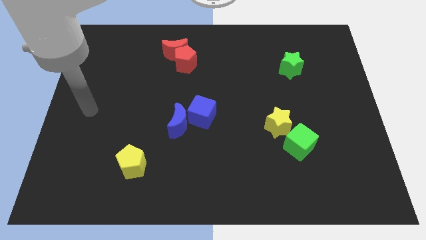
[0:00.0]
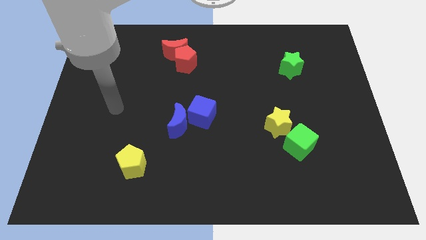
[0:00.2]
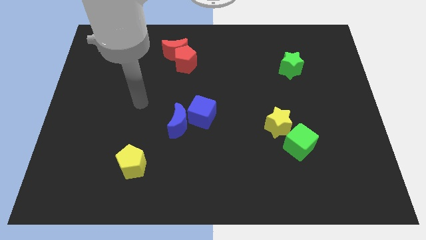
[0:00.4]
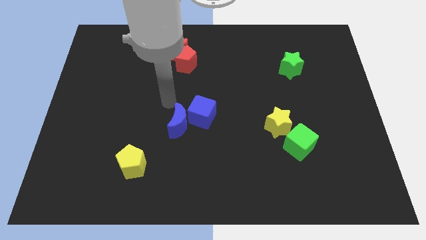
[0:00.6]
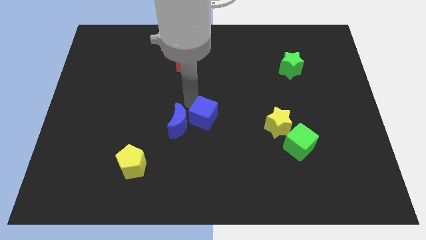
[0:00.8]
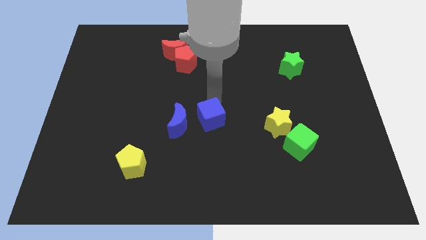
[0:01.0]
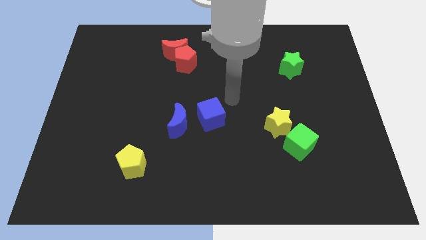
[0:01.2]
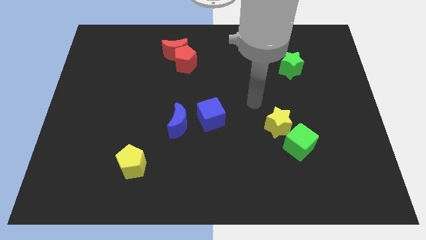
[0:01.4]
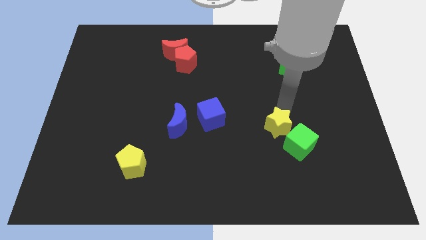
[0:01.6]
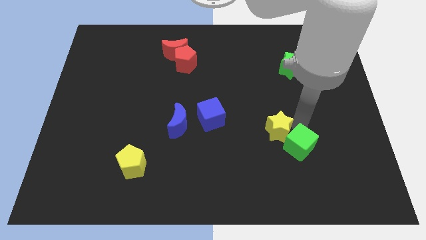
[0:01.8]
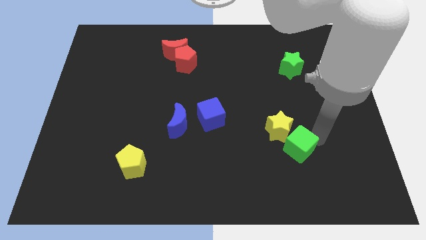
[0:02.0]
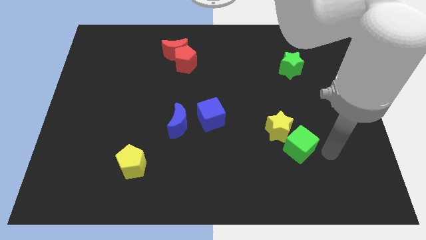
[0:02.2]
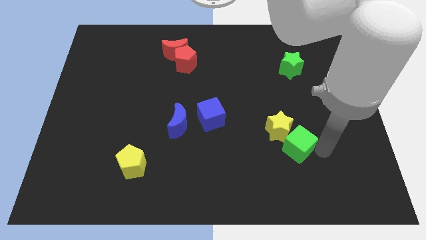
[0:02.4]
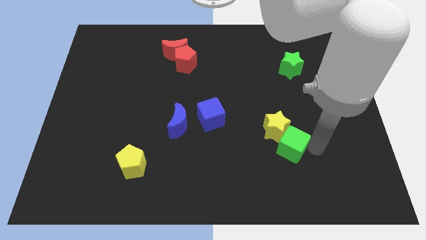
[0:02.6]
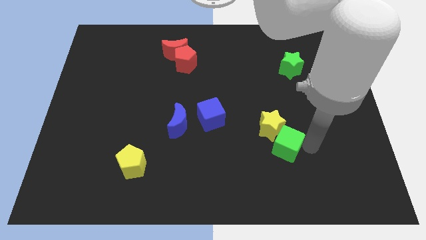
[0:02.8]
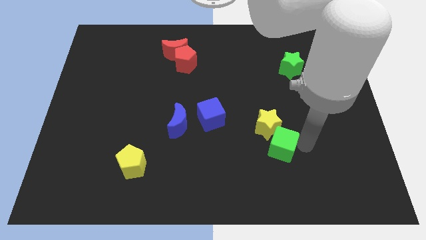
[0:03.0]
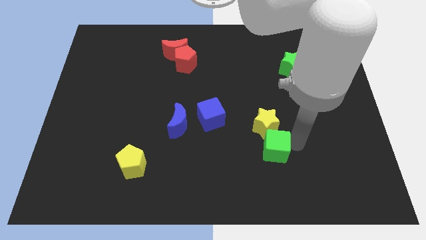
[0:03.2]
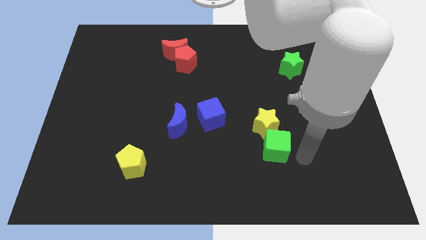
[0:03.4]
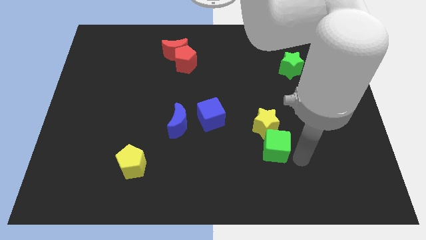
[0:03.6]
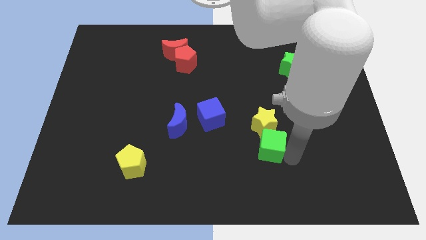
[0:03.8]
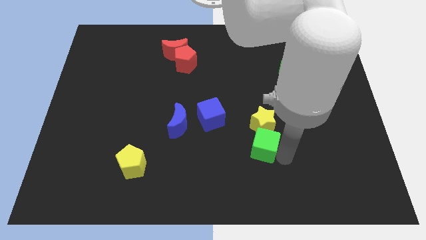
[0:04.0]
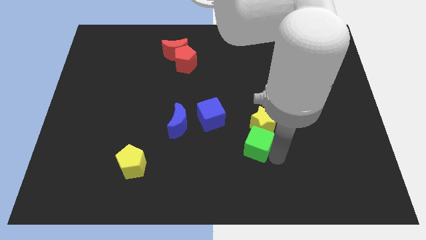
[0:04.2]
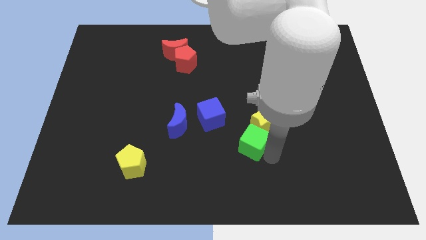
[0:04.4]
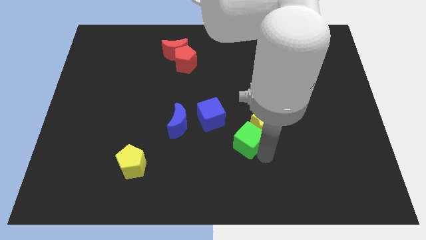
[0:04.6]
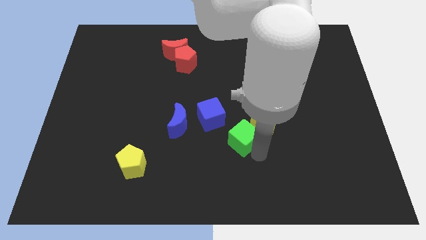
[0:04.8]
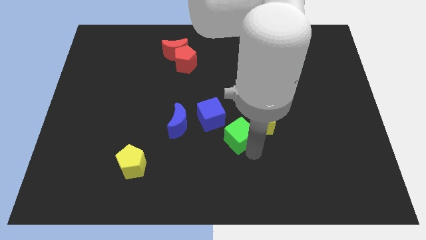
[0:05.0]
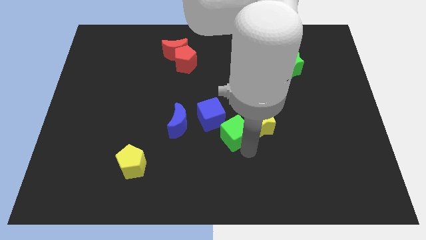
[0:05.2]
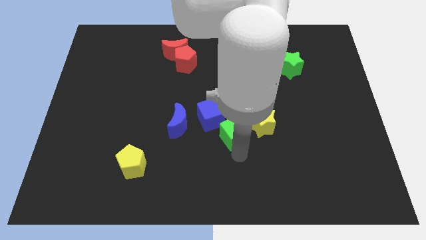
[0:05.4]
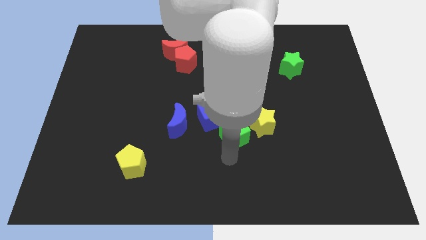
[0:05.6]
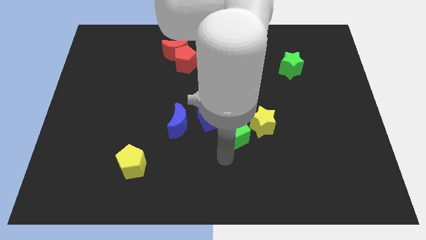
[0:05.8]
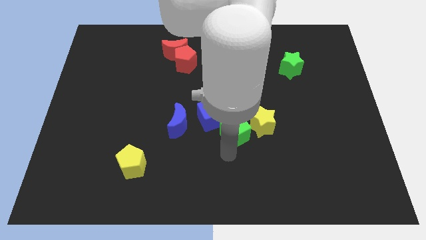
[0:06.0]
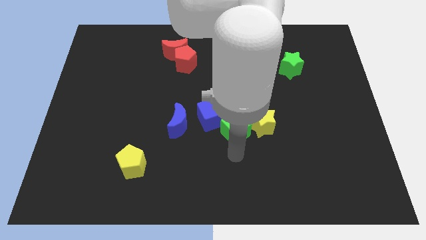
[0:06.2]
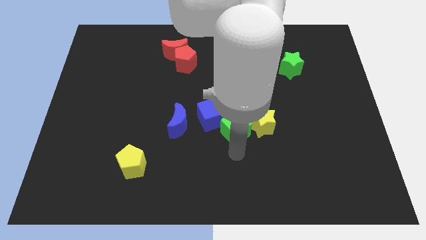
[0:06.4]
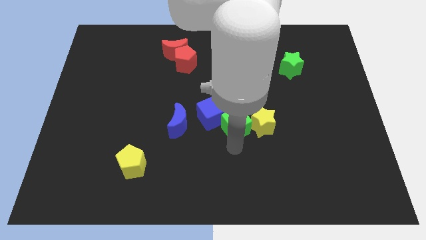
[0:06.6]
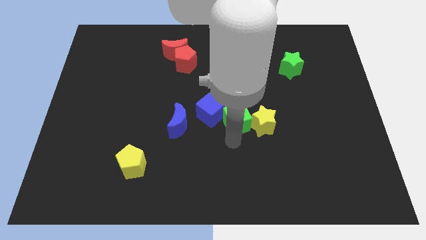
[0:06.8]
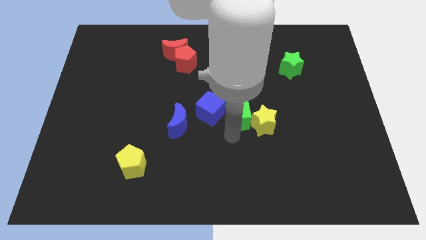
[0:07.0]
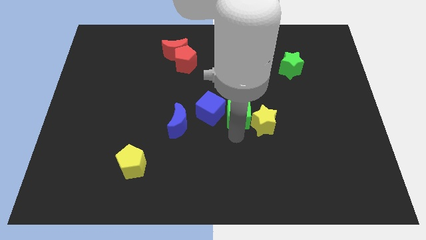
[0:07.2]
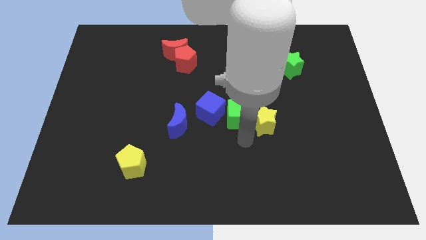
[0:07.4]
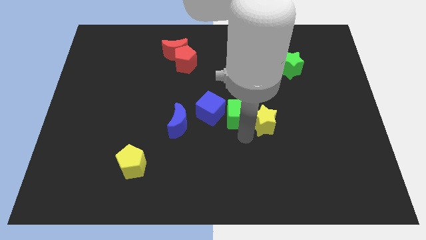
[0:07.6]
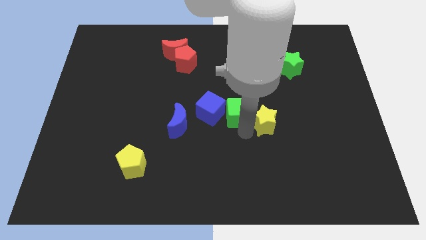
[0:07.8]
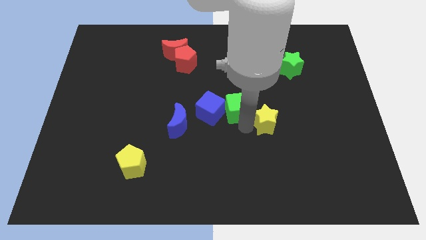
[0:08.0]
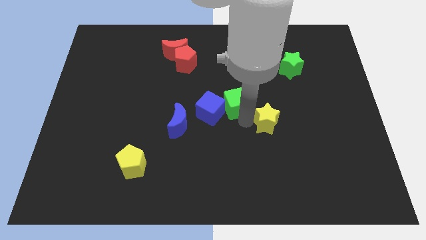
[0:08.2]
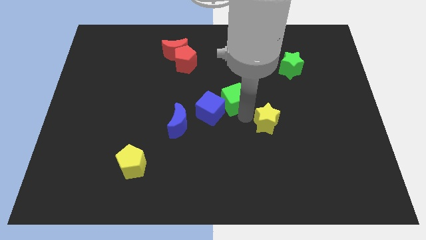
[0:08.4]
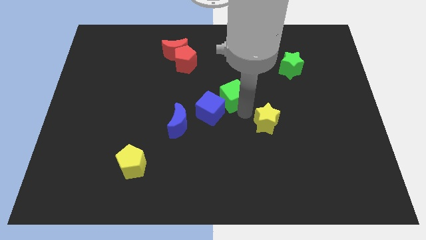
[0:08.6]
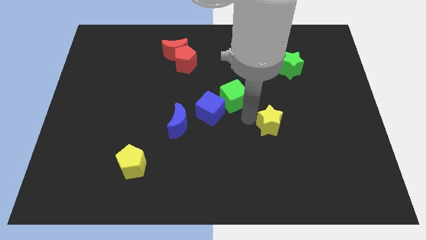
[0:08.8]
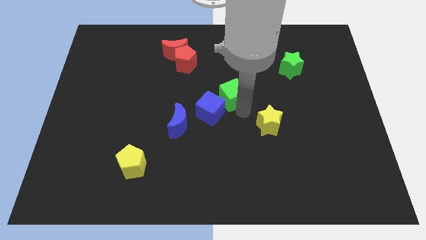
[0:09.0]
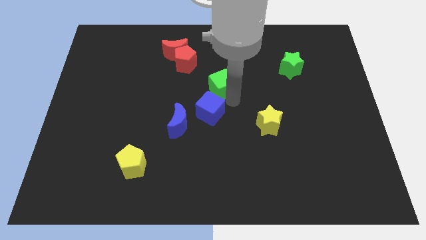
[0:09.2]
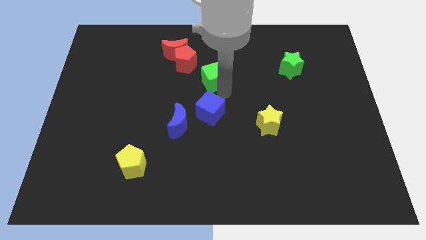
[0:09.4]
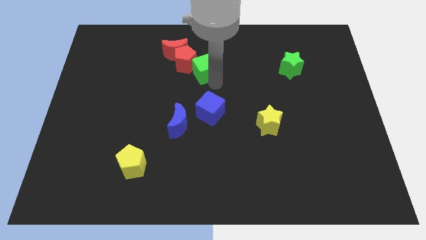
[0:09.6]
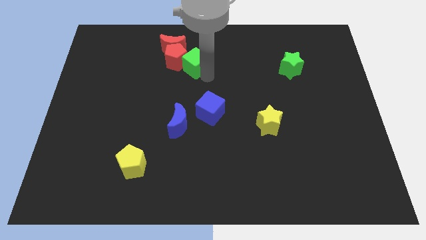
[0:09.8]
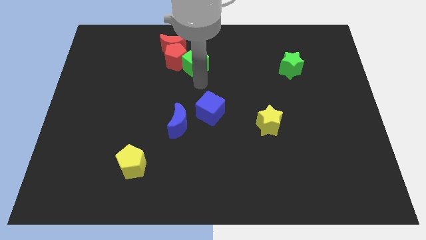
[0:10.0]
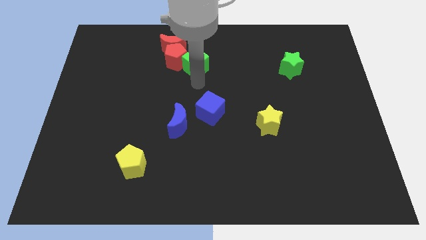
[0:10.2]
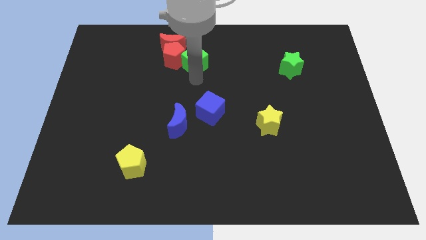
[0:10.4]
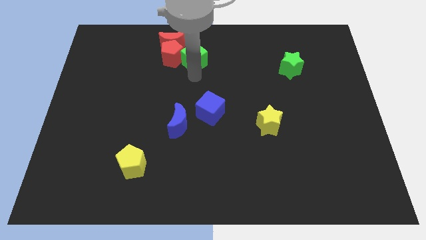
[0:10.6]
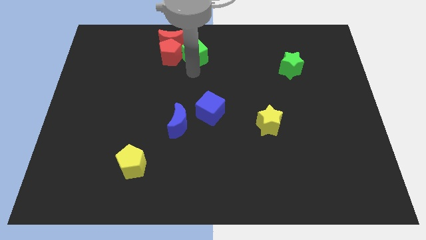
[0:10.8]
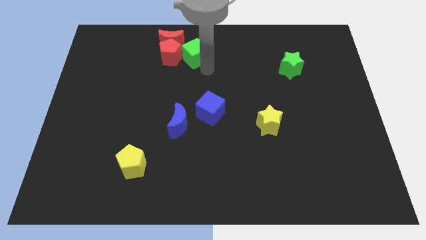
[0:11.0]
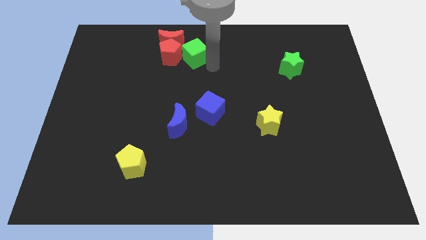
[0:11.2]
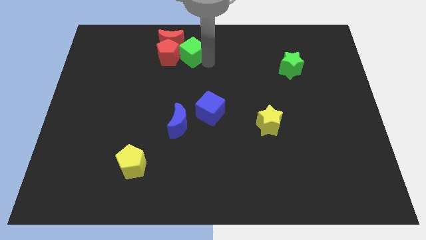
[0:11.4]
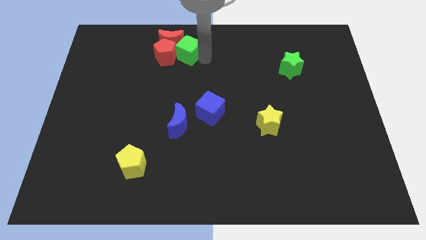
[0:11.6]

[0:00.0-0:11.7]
move the green cube close to the red moon

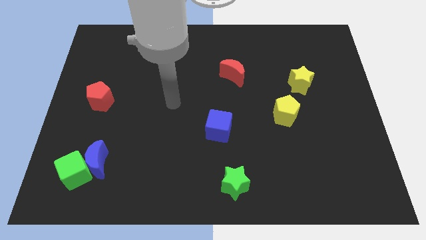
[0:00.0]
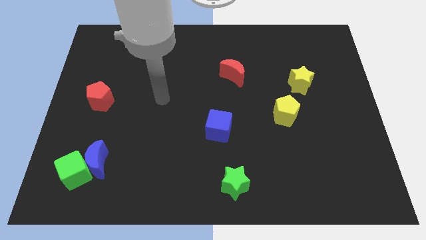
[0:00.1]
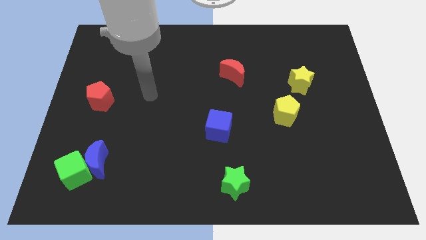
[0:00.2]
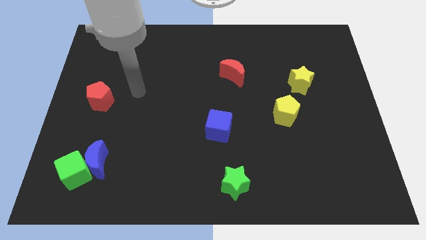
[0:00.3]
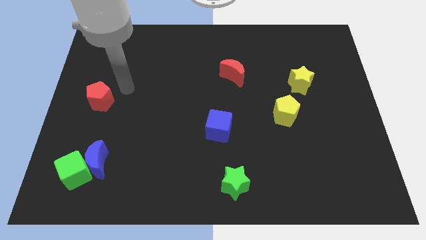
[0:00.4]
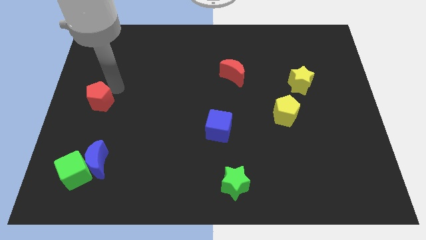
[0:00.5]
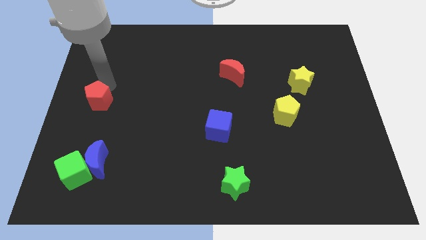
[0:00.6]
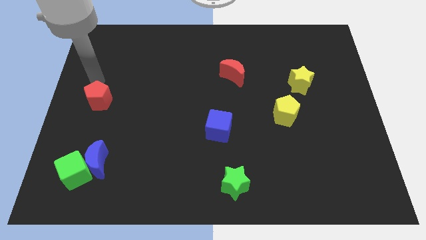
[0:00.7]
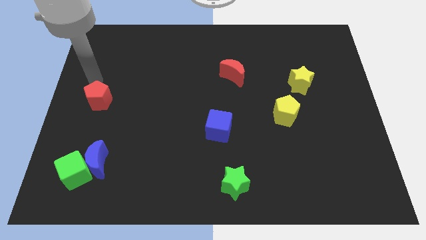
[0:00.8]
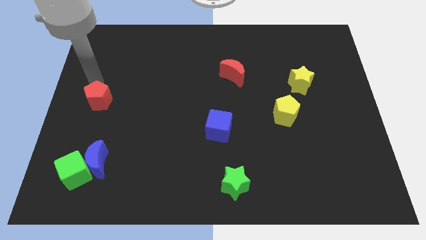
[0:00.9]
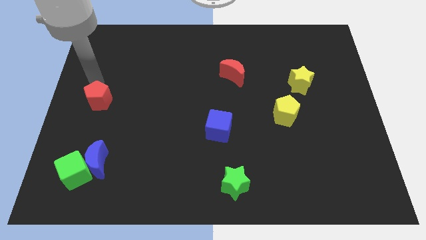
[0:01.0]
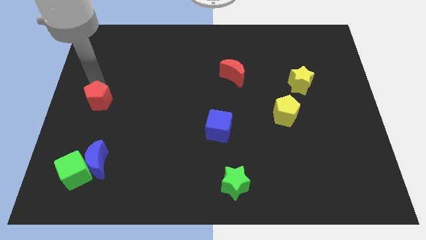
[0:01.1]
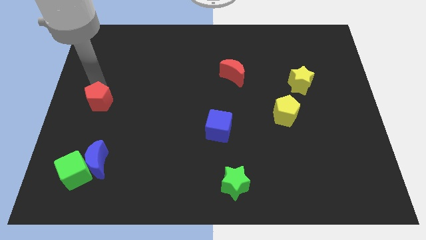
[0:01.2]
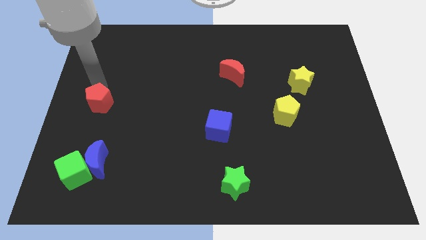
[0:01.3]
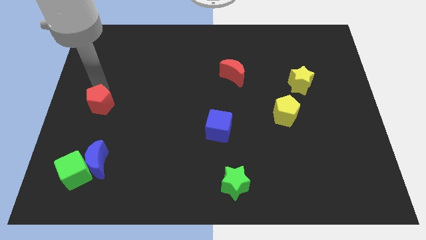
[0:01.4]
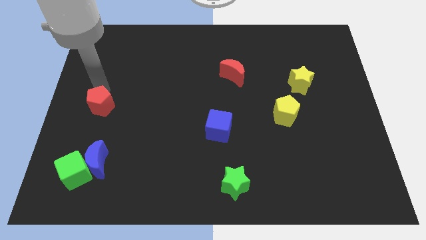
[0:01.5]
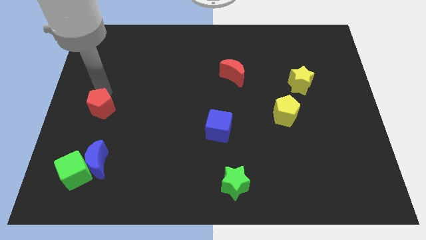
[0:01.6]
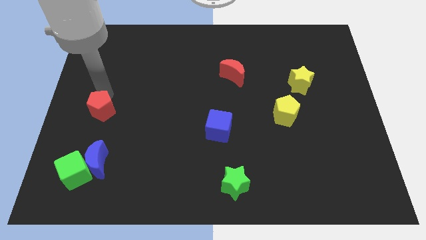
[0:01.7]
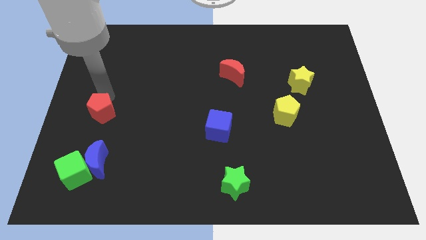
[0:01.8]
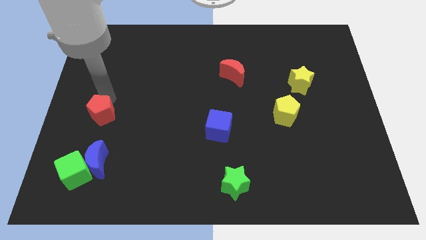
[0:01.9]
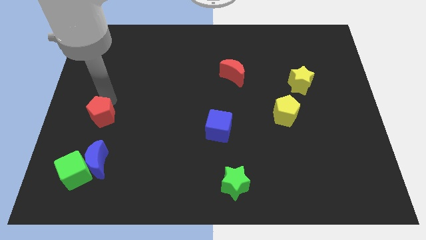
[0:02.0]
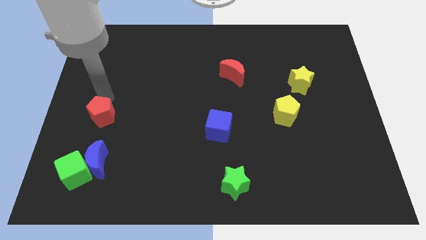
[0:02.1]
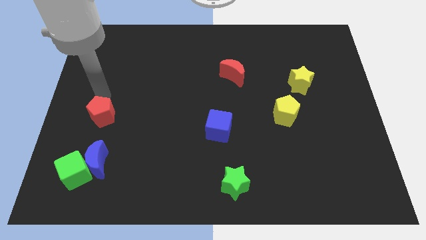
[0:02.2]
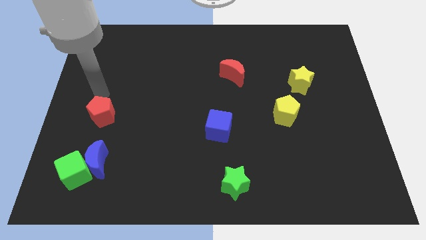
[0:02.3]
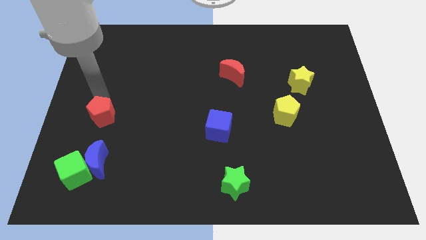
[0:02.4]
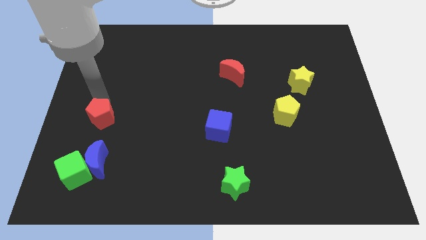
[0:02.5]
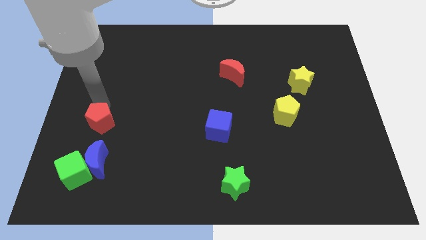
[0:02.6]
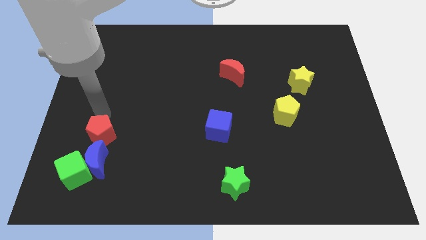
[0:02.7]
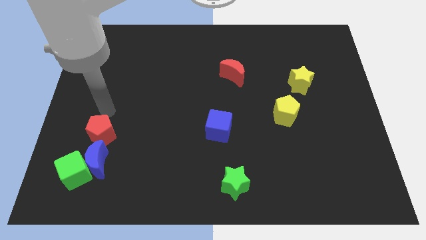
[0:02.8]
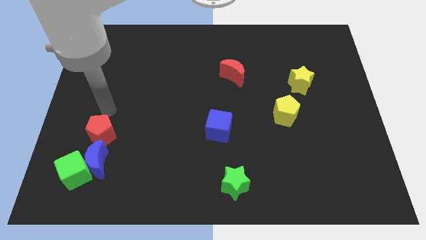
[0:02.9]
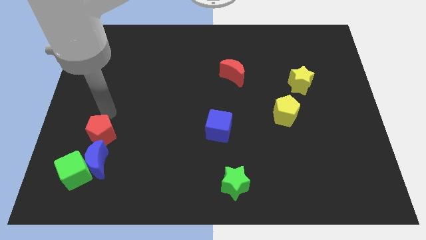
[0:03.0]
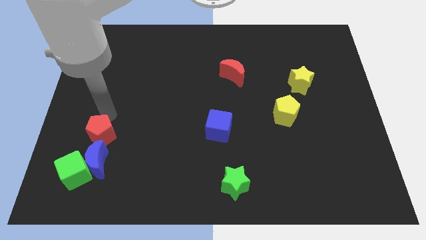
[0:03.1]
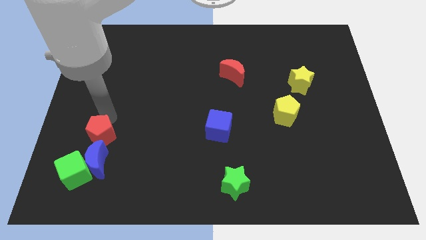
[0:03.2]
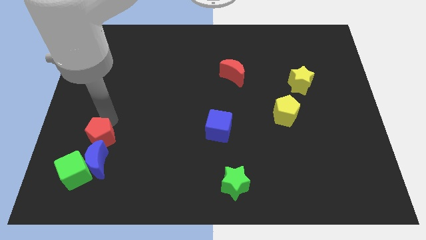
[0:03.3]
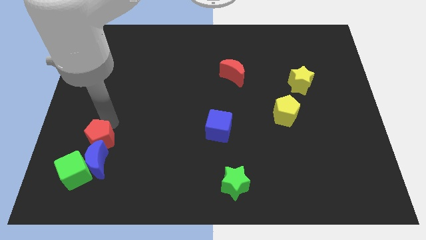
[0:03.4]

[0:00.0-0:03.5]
push the red pentagon close to the blue moon
